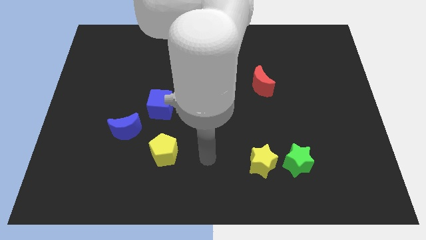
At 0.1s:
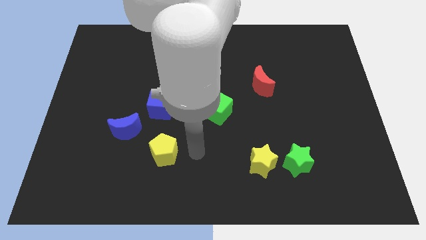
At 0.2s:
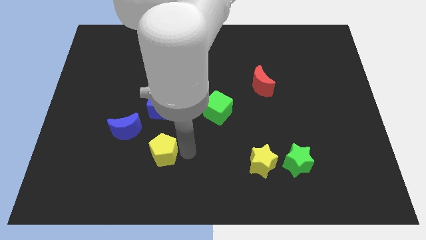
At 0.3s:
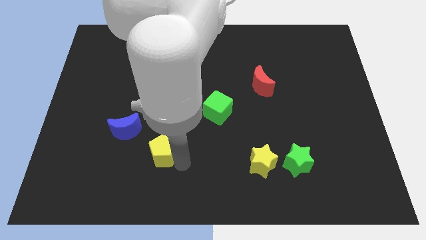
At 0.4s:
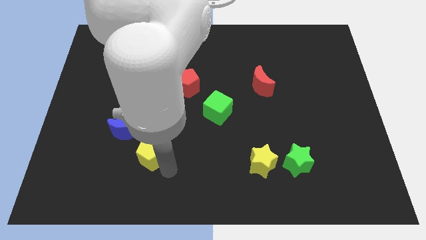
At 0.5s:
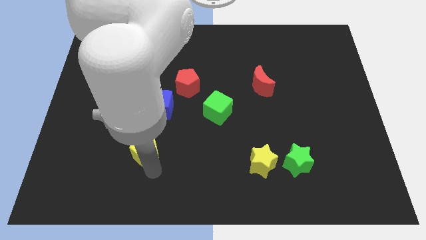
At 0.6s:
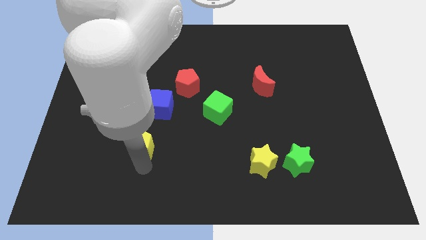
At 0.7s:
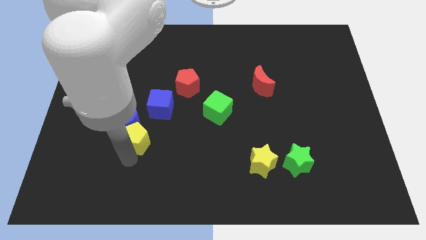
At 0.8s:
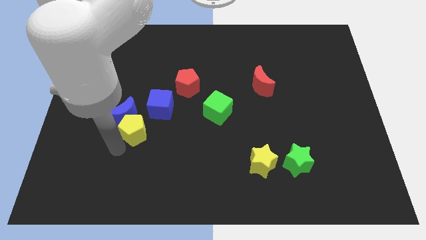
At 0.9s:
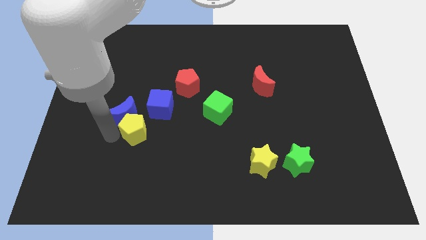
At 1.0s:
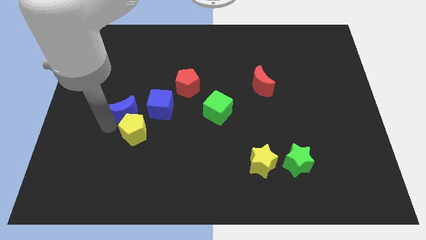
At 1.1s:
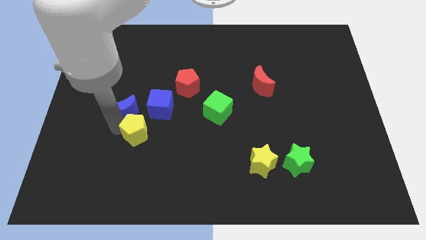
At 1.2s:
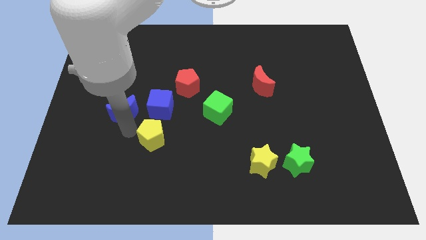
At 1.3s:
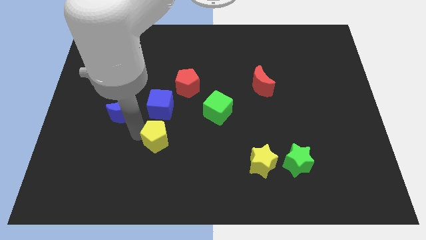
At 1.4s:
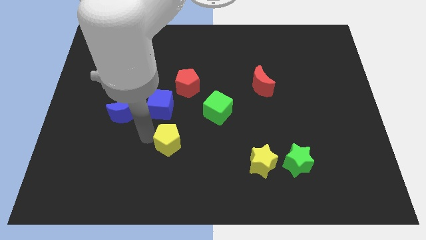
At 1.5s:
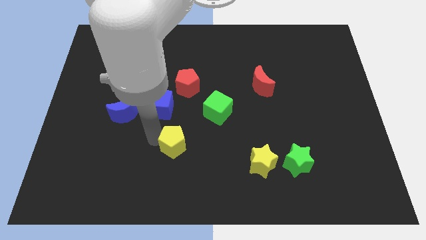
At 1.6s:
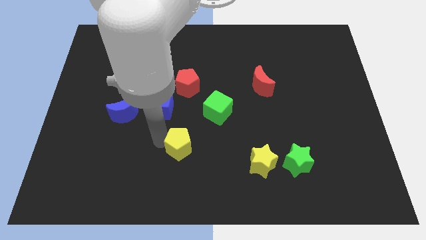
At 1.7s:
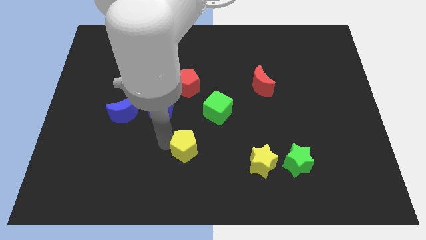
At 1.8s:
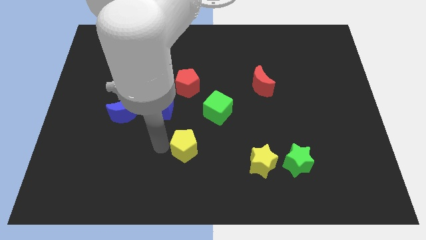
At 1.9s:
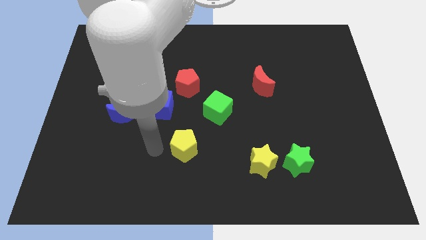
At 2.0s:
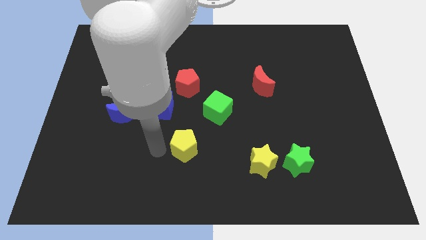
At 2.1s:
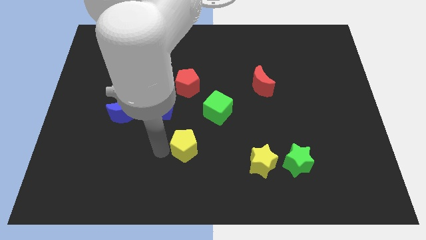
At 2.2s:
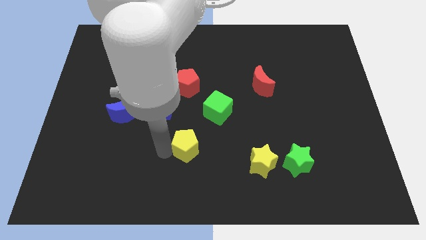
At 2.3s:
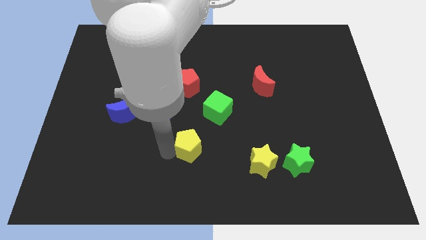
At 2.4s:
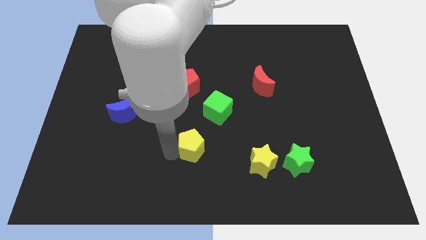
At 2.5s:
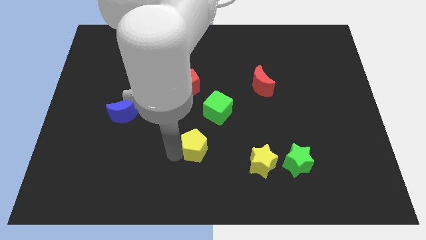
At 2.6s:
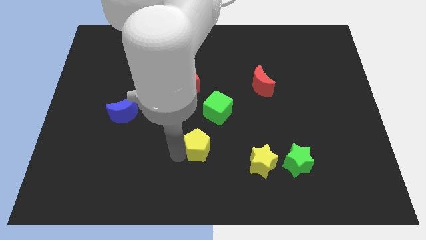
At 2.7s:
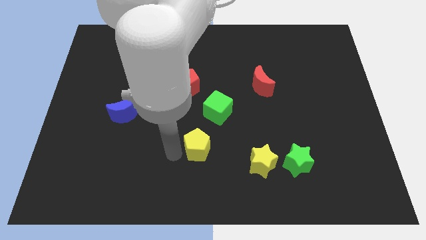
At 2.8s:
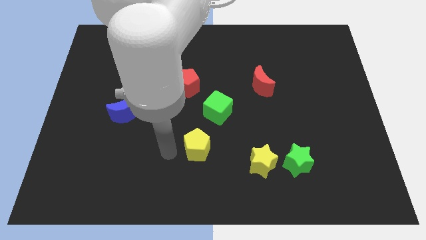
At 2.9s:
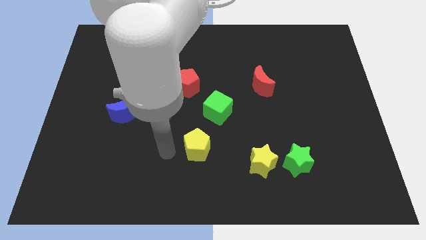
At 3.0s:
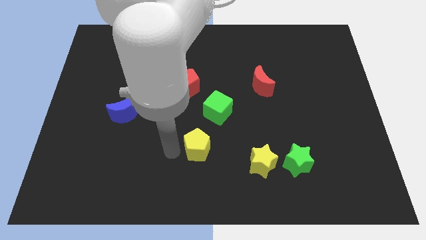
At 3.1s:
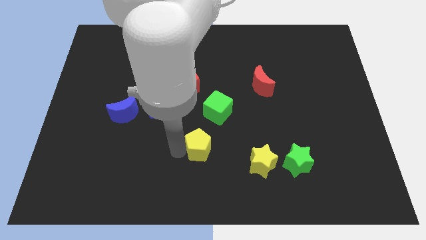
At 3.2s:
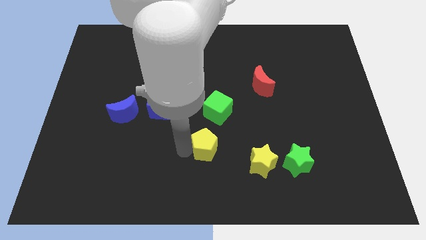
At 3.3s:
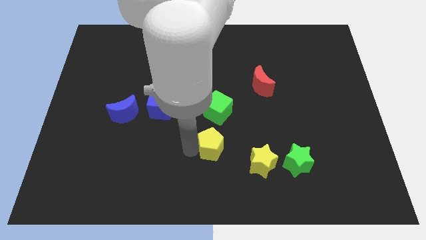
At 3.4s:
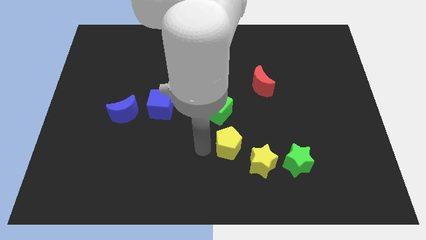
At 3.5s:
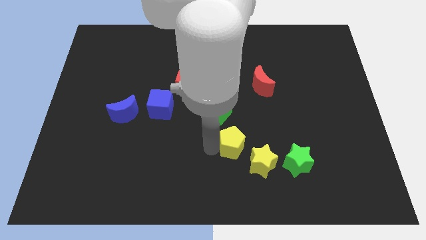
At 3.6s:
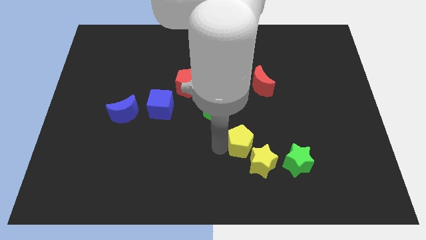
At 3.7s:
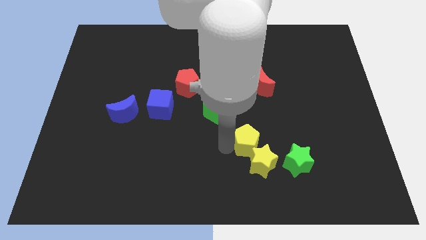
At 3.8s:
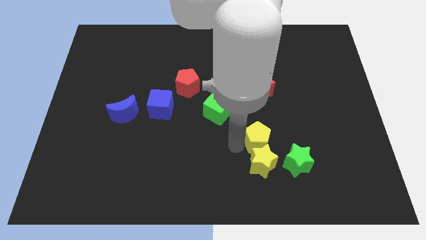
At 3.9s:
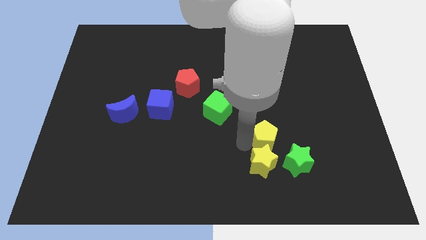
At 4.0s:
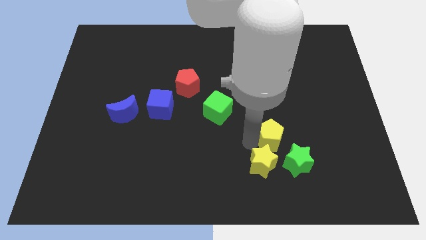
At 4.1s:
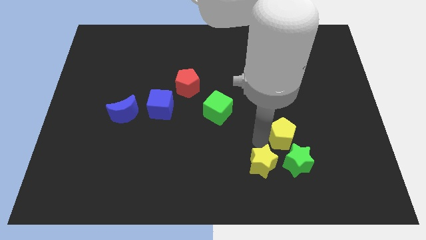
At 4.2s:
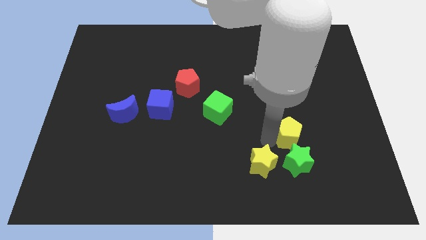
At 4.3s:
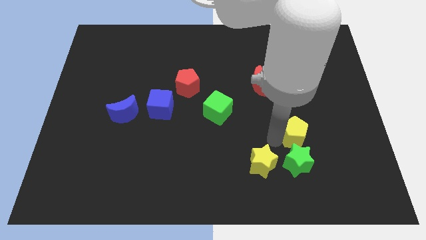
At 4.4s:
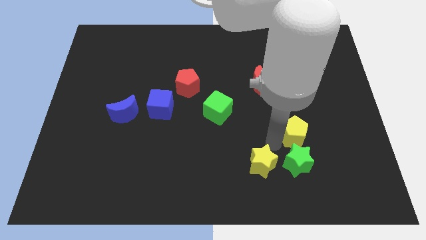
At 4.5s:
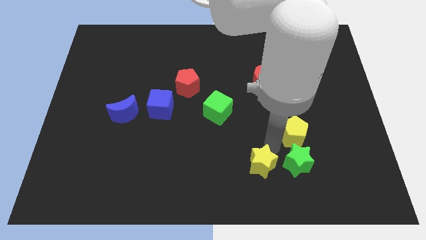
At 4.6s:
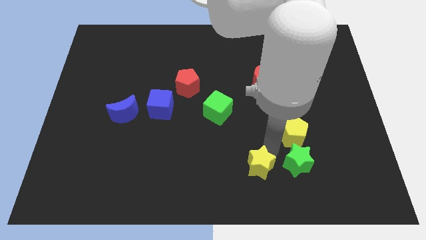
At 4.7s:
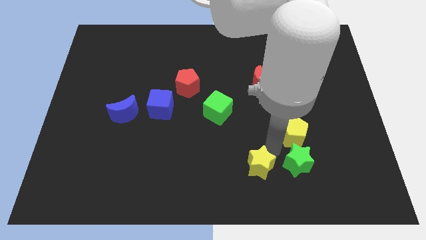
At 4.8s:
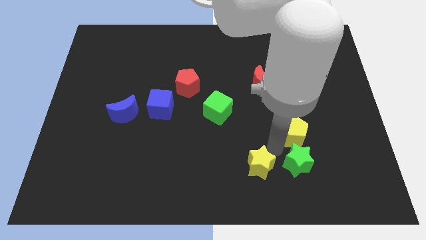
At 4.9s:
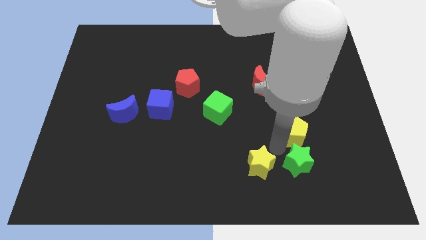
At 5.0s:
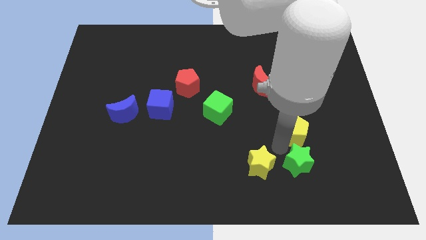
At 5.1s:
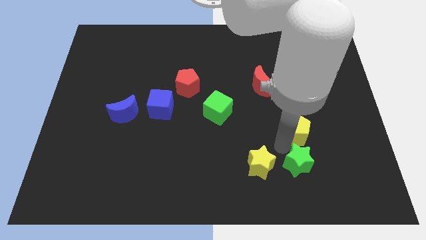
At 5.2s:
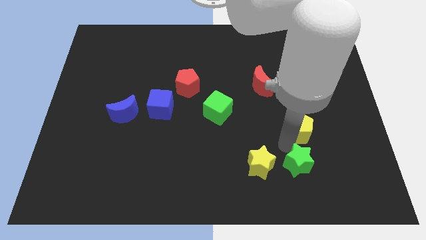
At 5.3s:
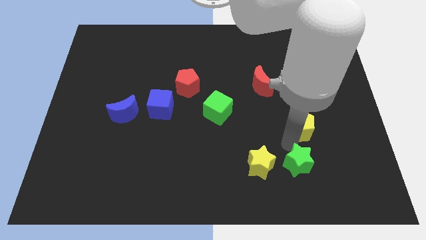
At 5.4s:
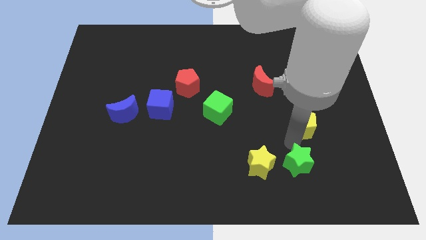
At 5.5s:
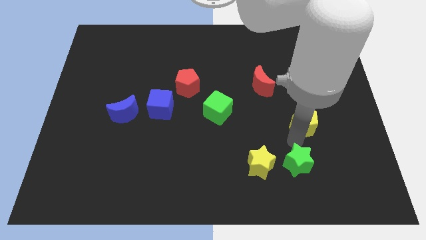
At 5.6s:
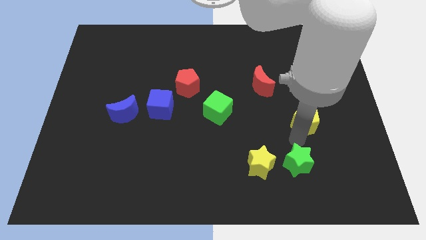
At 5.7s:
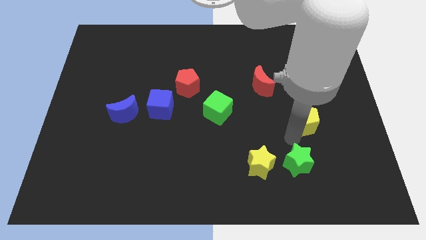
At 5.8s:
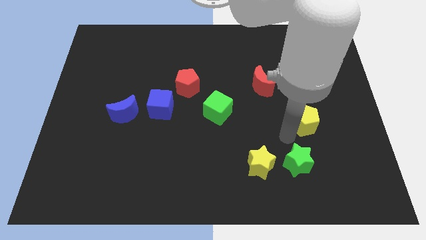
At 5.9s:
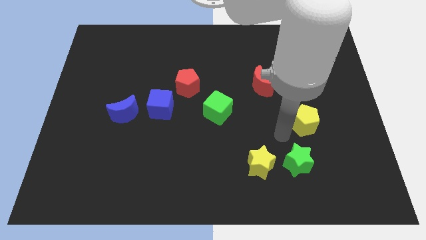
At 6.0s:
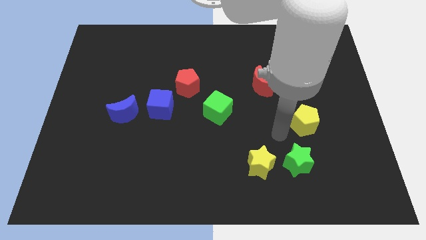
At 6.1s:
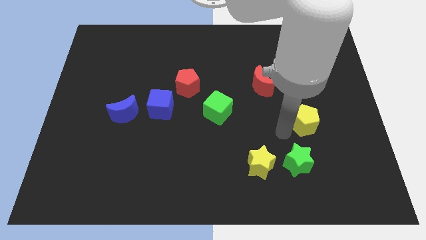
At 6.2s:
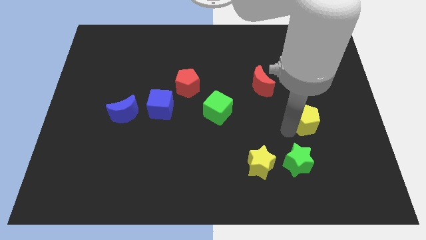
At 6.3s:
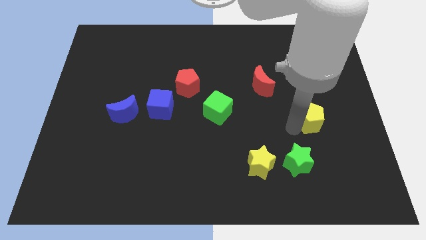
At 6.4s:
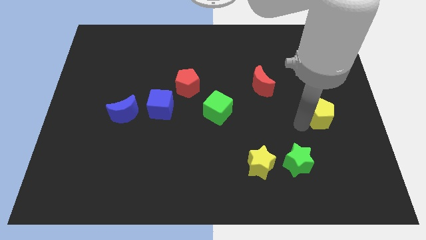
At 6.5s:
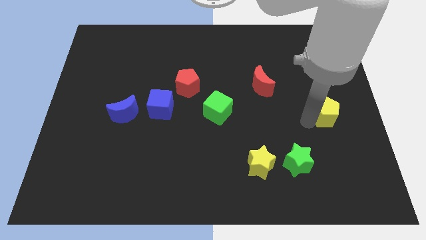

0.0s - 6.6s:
push the yellow pentagon to the right side

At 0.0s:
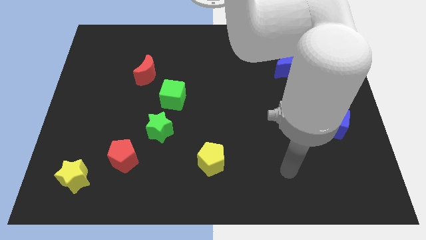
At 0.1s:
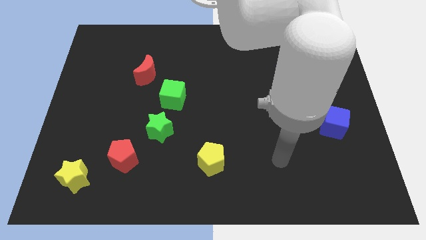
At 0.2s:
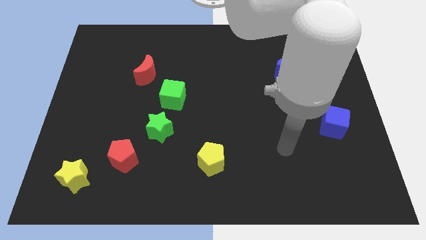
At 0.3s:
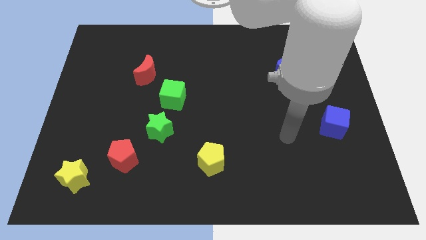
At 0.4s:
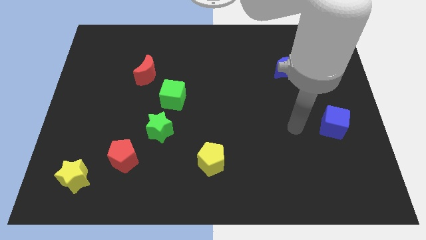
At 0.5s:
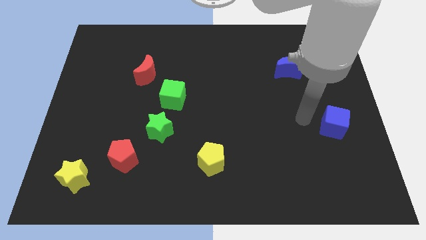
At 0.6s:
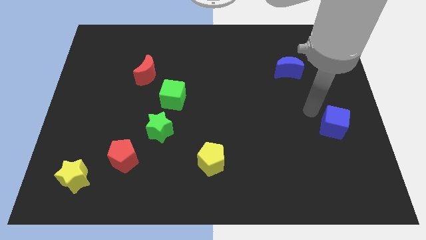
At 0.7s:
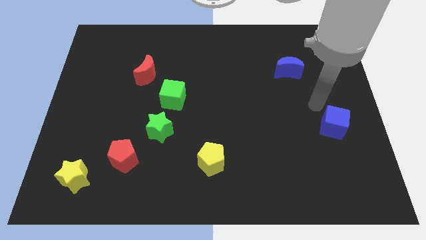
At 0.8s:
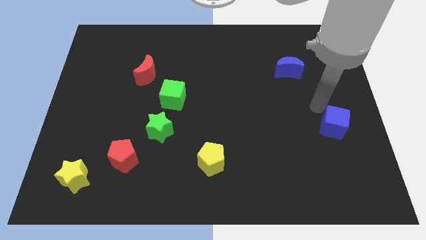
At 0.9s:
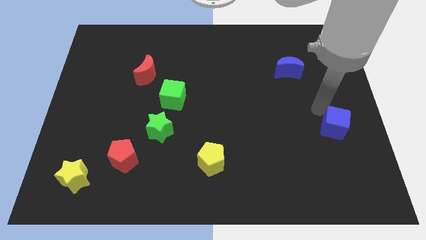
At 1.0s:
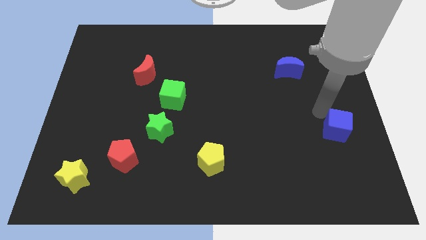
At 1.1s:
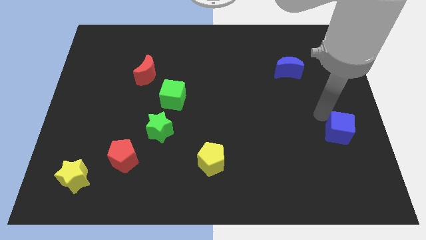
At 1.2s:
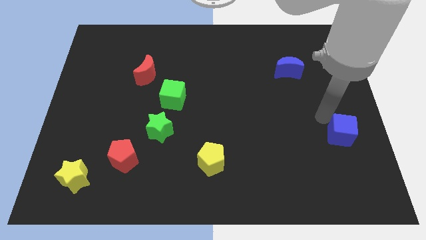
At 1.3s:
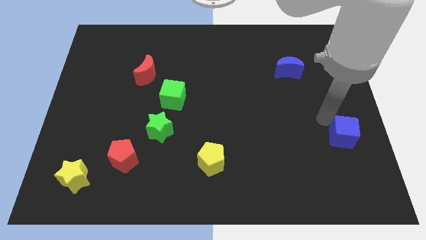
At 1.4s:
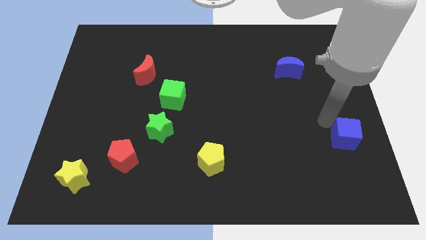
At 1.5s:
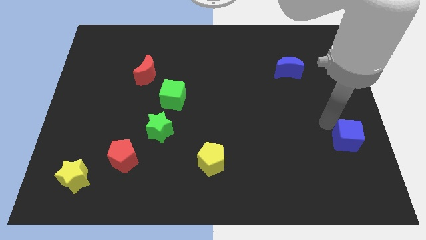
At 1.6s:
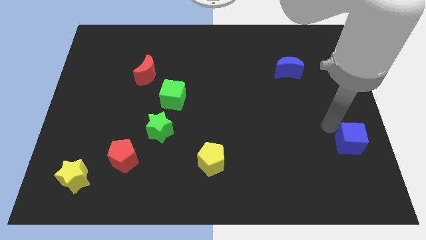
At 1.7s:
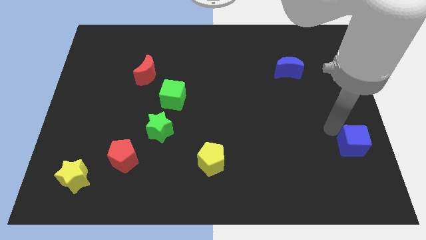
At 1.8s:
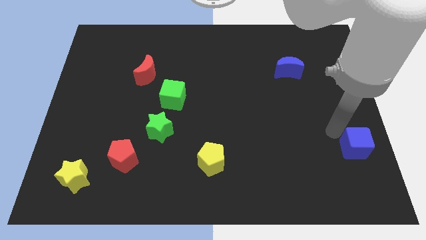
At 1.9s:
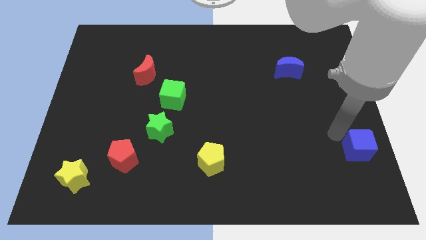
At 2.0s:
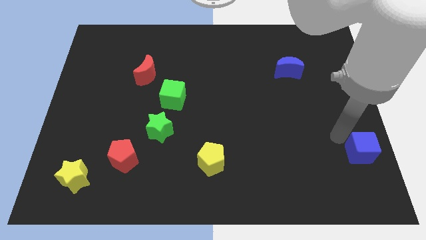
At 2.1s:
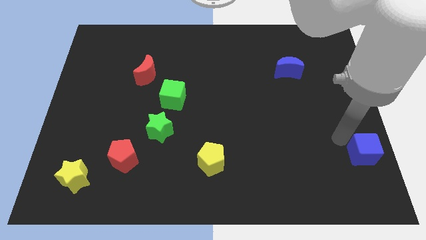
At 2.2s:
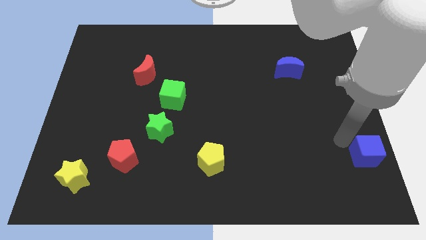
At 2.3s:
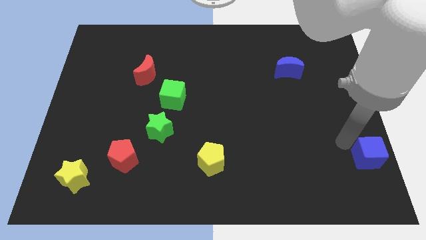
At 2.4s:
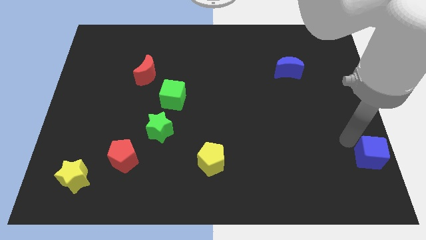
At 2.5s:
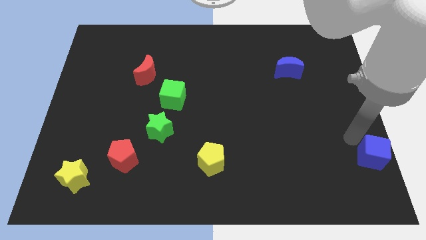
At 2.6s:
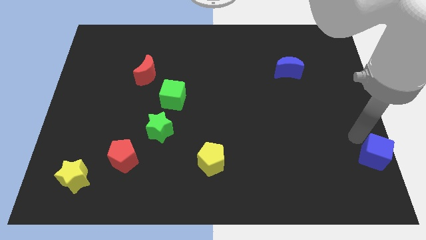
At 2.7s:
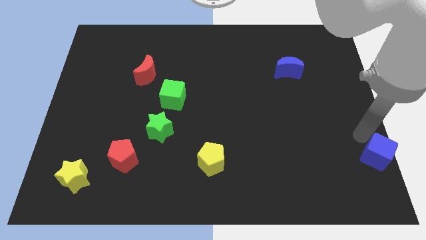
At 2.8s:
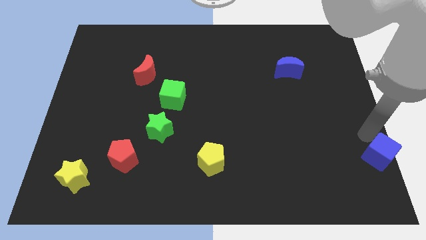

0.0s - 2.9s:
slide the blue cube to the bottom right
